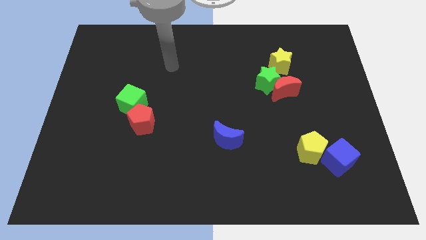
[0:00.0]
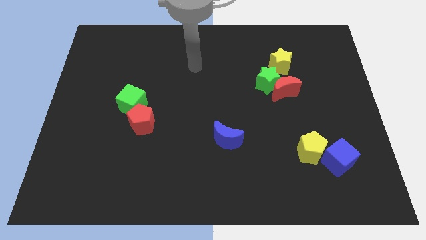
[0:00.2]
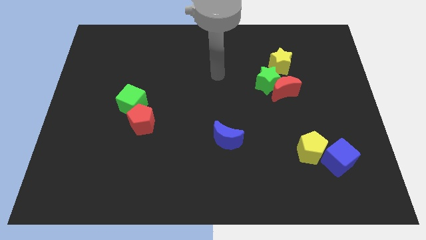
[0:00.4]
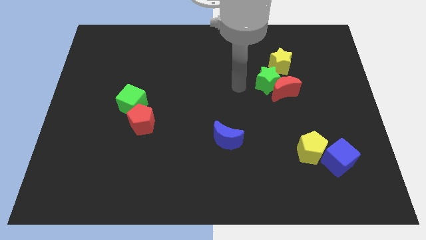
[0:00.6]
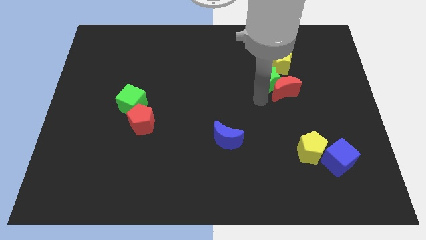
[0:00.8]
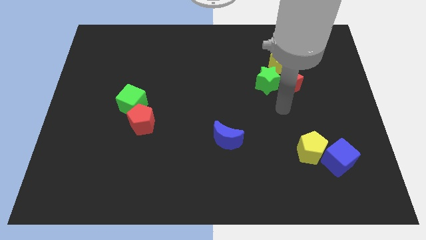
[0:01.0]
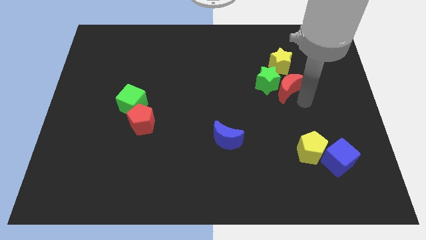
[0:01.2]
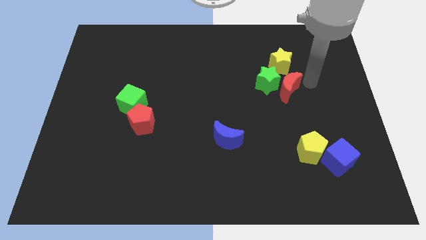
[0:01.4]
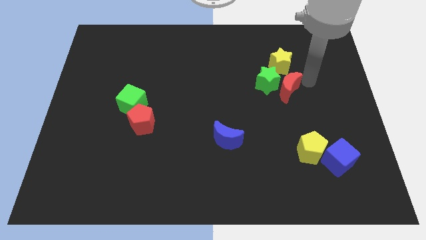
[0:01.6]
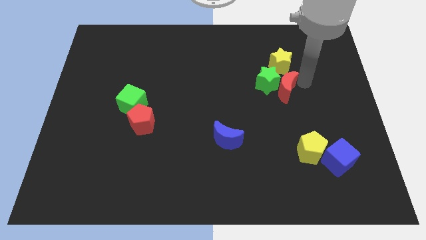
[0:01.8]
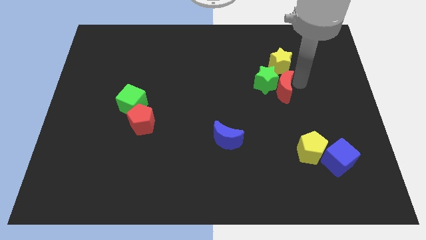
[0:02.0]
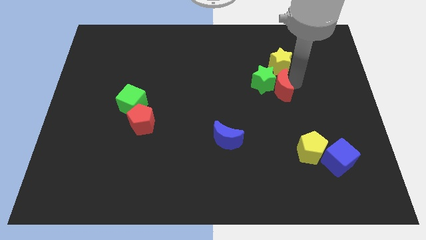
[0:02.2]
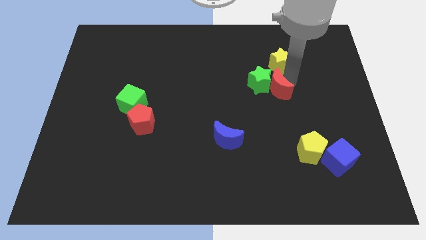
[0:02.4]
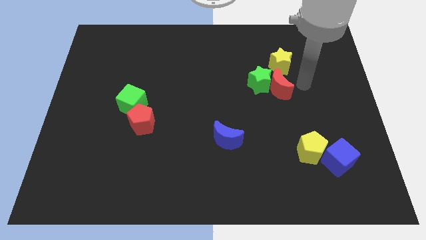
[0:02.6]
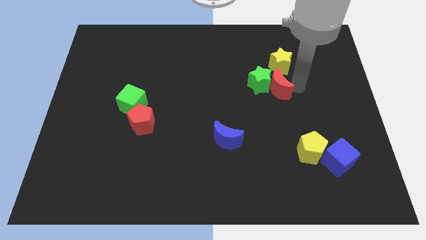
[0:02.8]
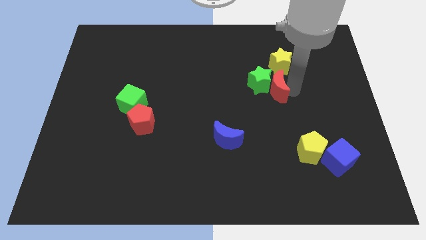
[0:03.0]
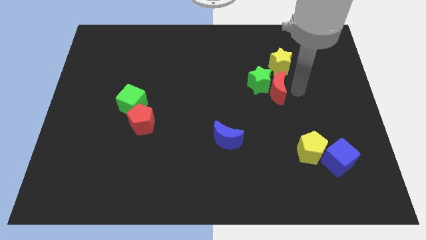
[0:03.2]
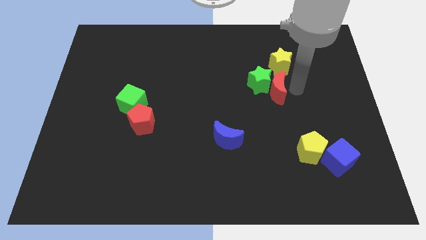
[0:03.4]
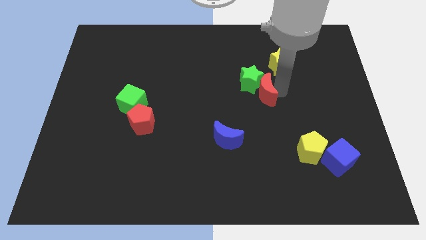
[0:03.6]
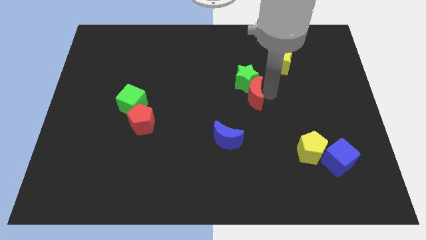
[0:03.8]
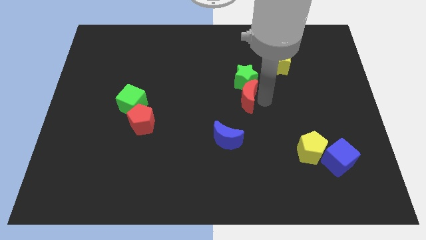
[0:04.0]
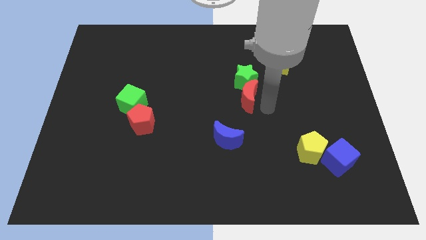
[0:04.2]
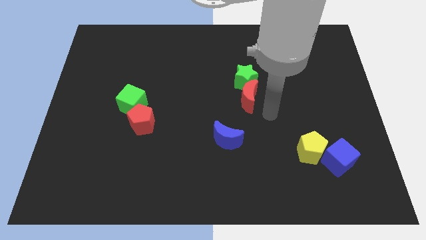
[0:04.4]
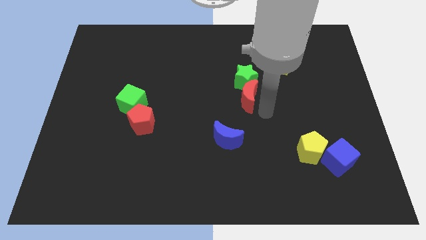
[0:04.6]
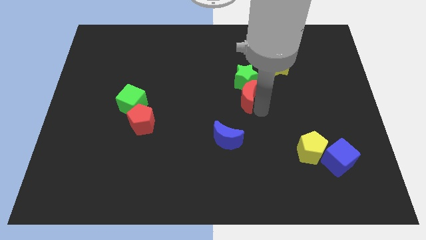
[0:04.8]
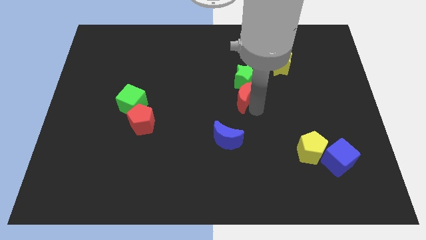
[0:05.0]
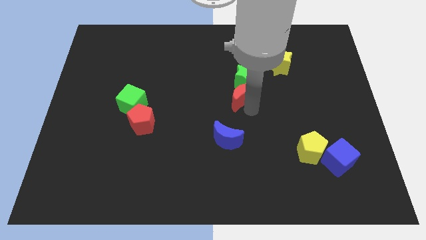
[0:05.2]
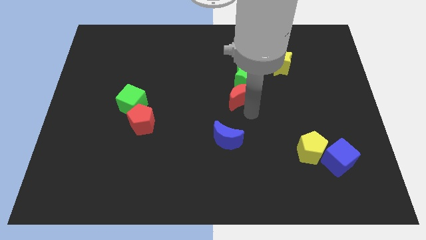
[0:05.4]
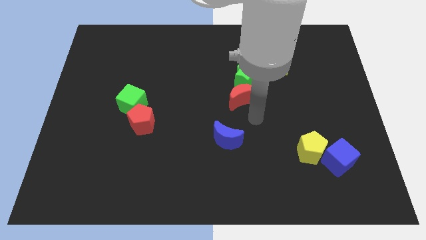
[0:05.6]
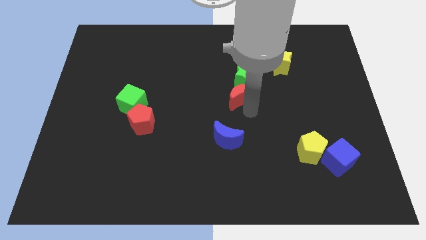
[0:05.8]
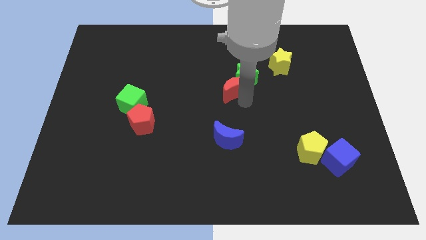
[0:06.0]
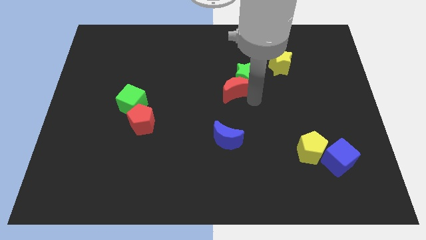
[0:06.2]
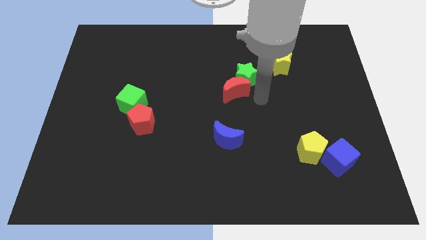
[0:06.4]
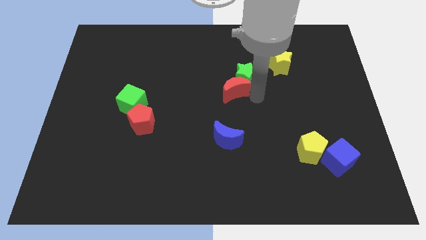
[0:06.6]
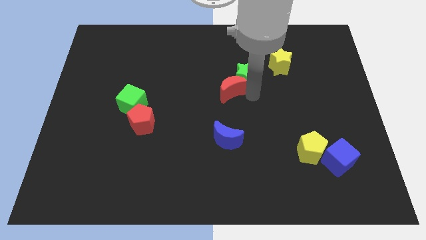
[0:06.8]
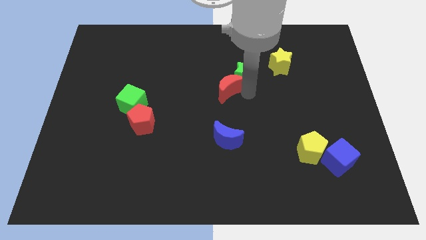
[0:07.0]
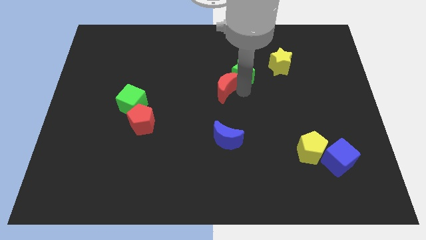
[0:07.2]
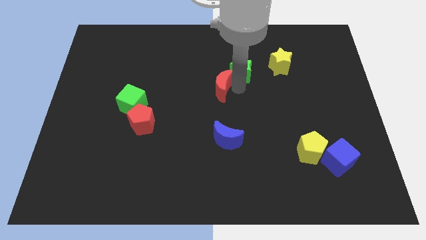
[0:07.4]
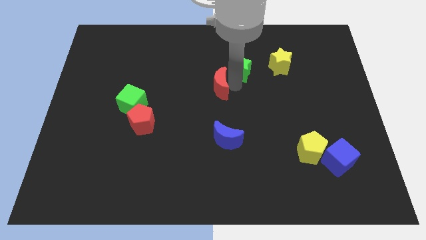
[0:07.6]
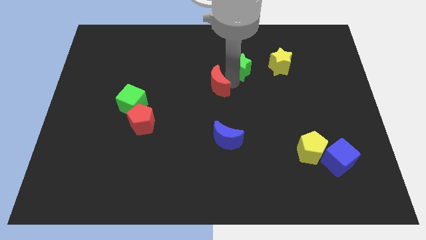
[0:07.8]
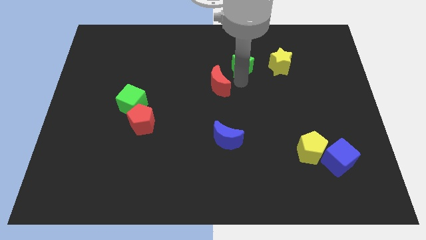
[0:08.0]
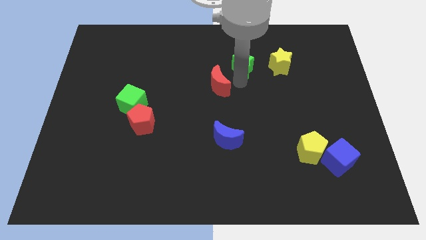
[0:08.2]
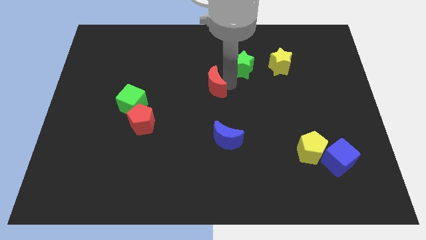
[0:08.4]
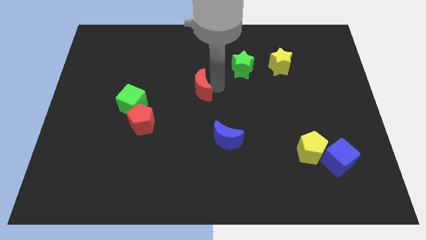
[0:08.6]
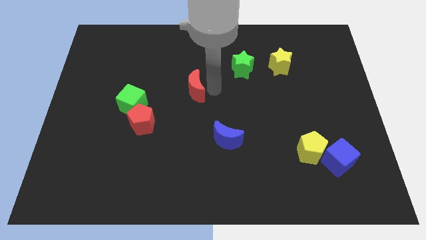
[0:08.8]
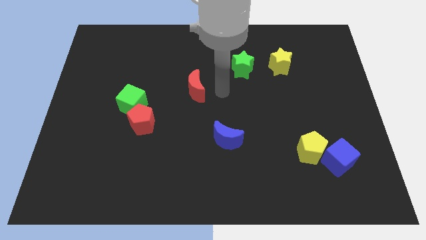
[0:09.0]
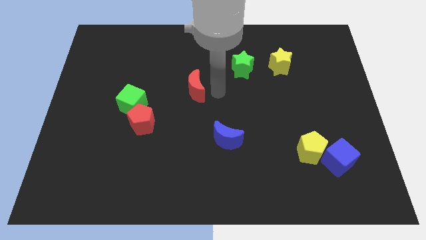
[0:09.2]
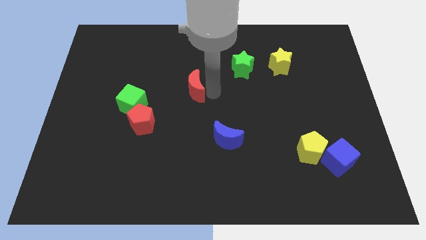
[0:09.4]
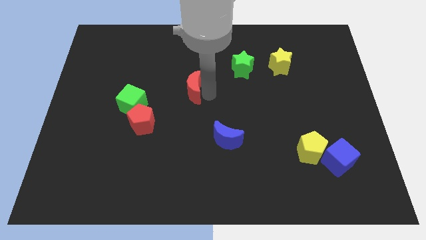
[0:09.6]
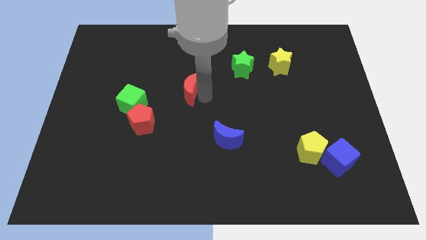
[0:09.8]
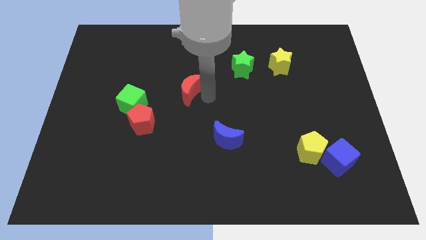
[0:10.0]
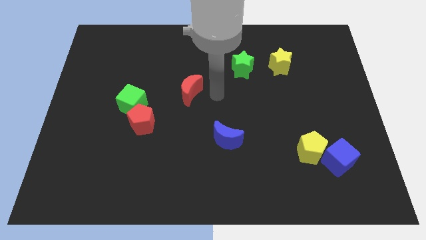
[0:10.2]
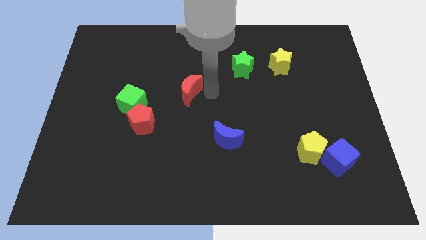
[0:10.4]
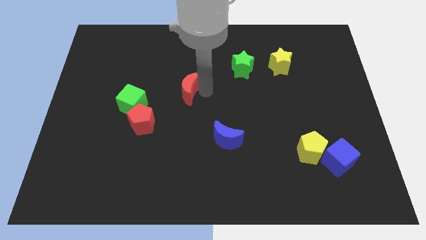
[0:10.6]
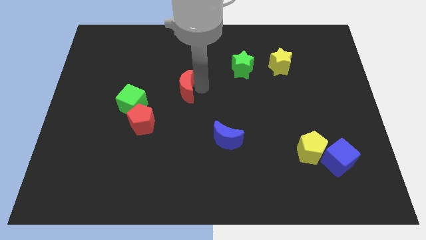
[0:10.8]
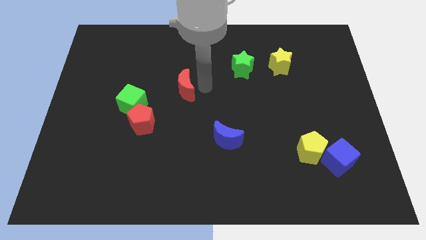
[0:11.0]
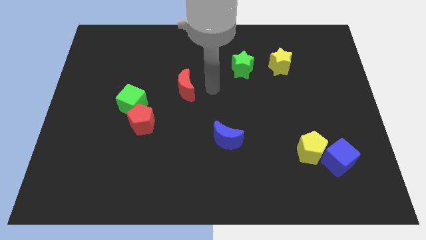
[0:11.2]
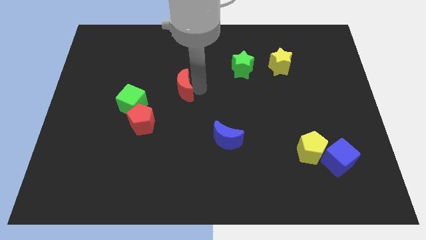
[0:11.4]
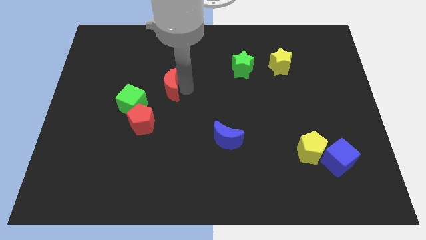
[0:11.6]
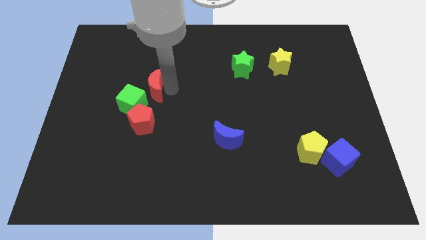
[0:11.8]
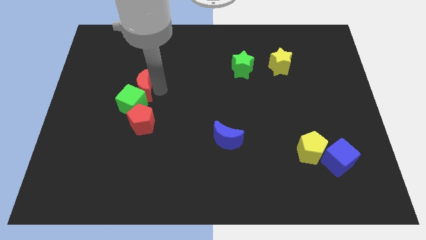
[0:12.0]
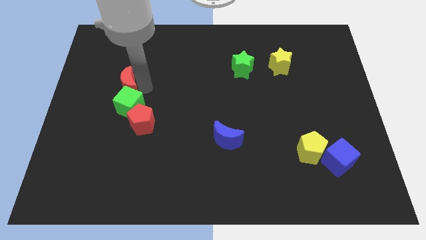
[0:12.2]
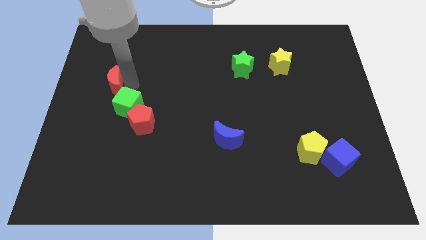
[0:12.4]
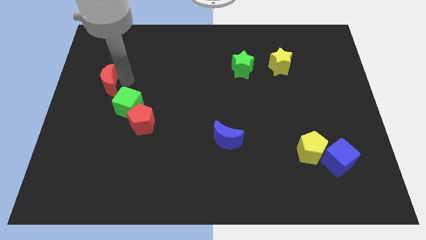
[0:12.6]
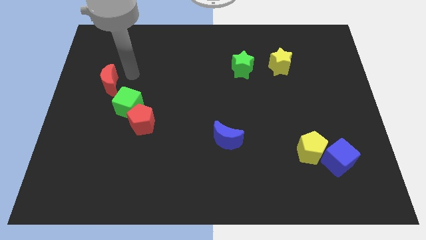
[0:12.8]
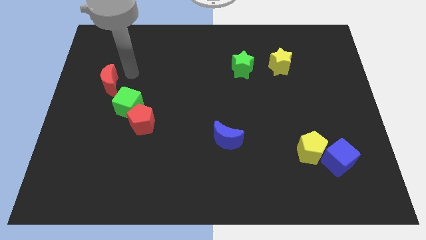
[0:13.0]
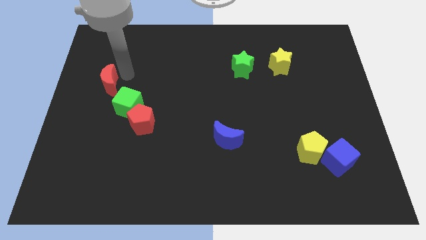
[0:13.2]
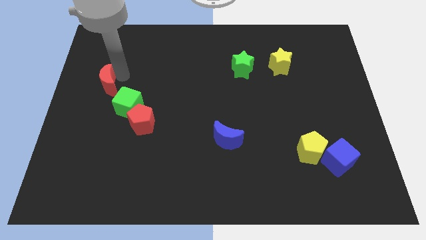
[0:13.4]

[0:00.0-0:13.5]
move the red moon to the left side

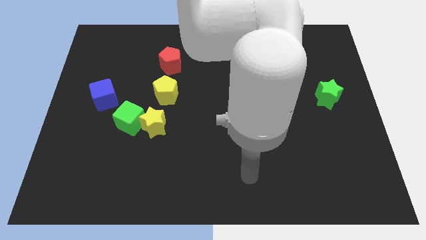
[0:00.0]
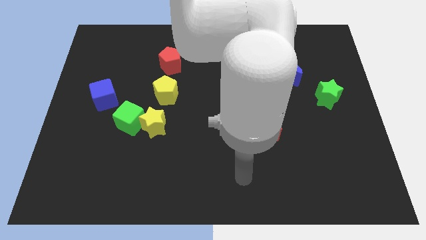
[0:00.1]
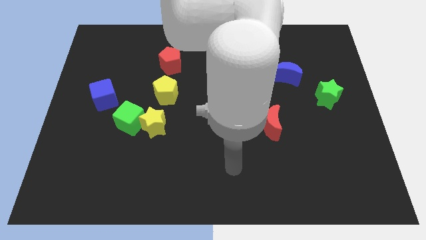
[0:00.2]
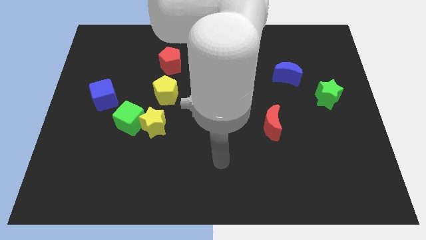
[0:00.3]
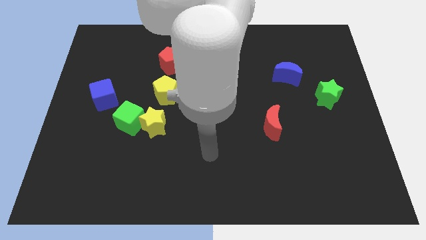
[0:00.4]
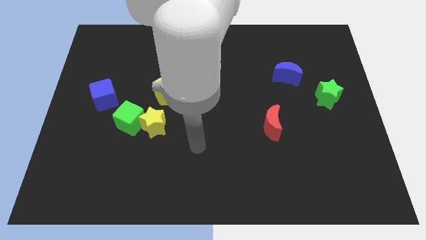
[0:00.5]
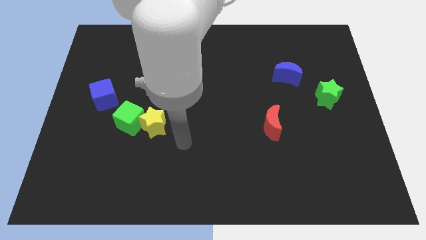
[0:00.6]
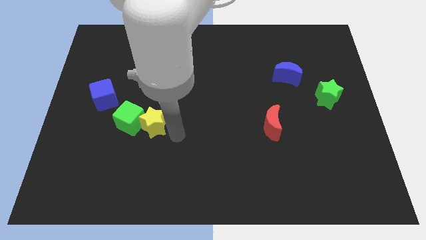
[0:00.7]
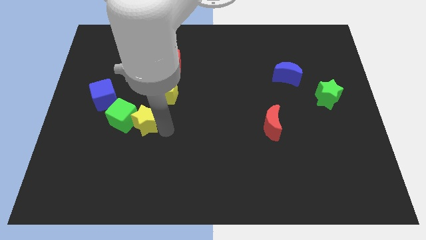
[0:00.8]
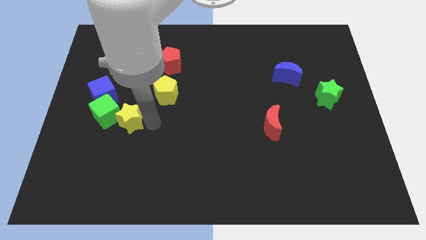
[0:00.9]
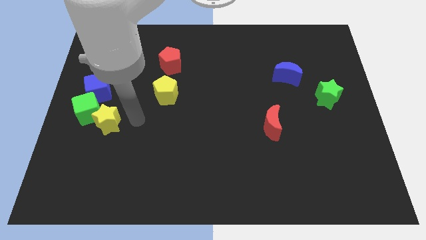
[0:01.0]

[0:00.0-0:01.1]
push the green cube to the left side of the board
